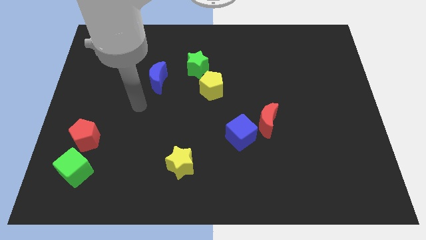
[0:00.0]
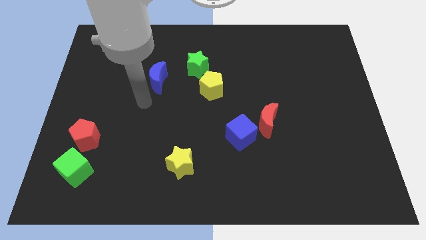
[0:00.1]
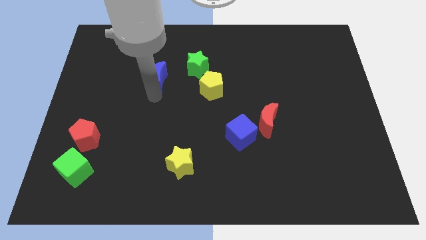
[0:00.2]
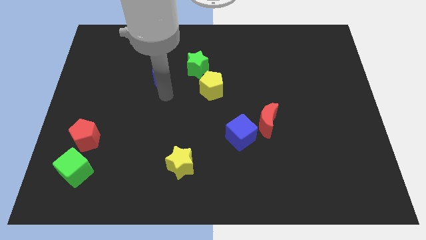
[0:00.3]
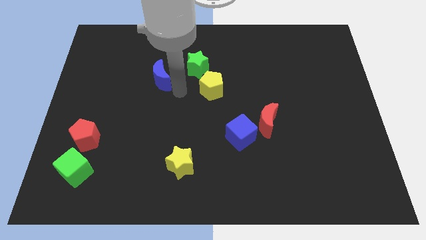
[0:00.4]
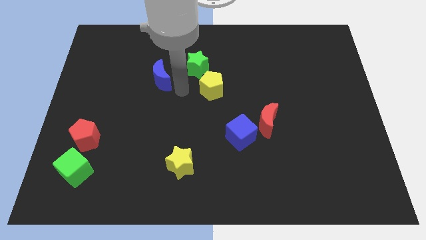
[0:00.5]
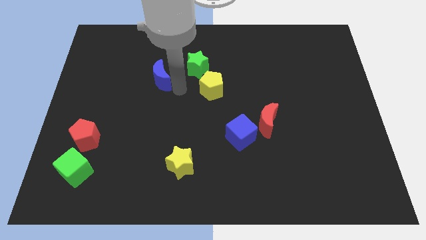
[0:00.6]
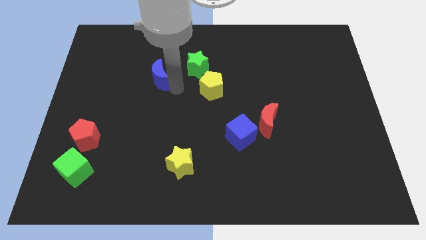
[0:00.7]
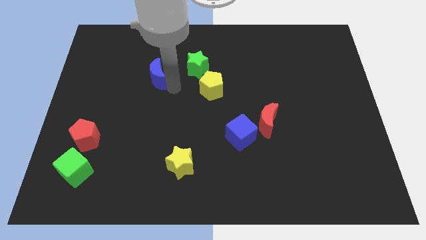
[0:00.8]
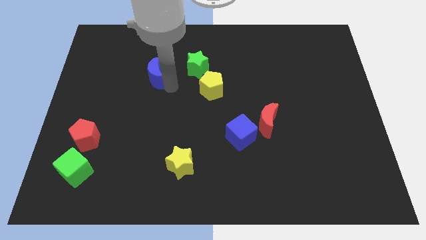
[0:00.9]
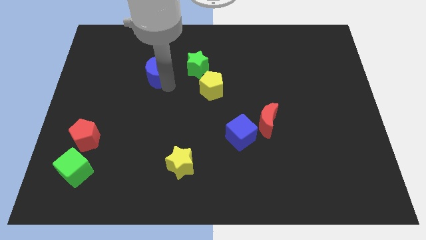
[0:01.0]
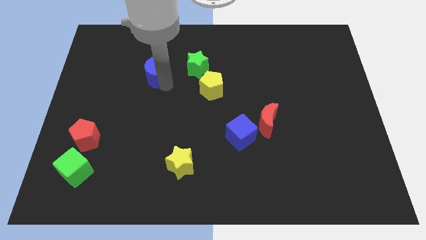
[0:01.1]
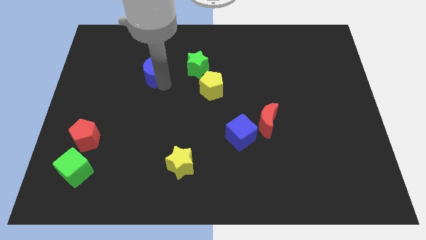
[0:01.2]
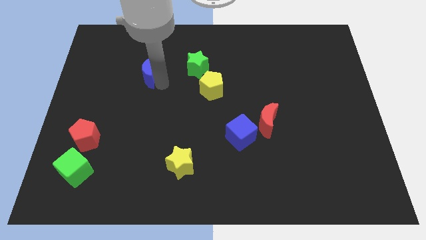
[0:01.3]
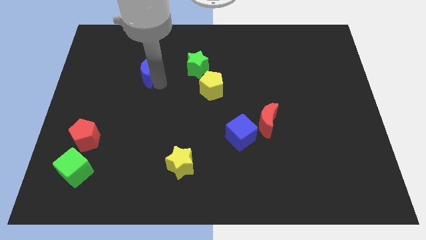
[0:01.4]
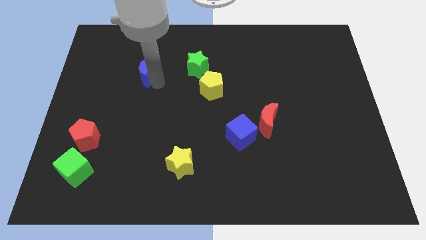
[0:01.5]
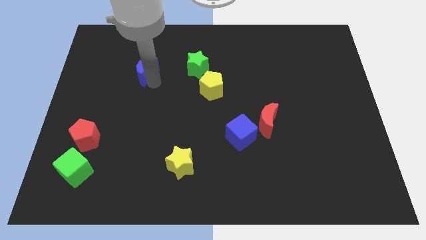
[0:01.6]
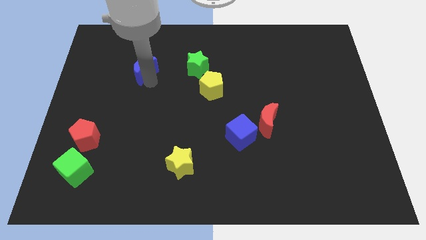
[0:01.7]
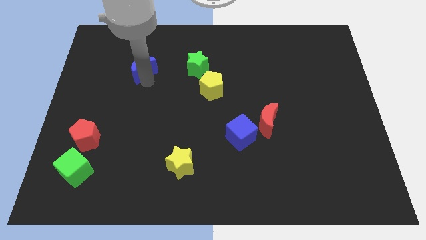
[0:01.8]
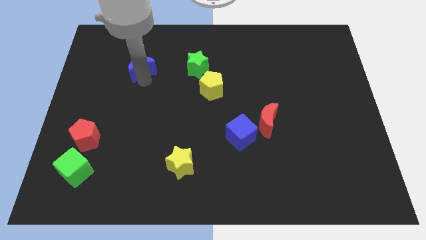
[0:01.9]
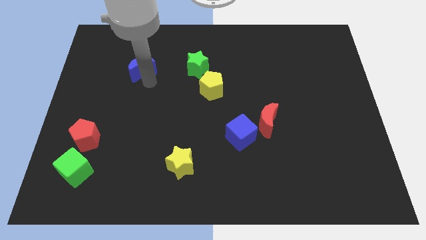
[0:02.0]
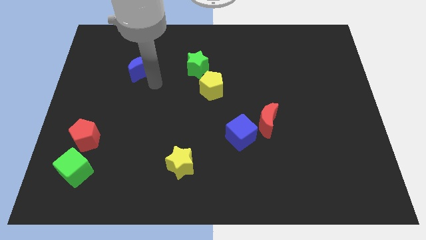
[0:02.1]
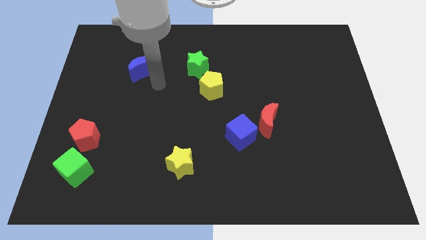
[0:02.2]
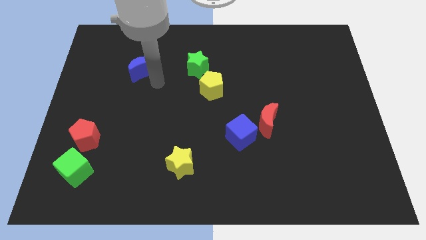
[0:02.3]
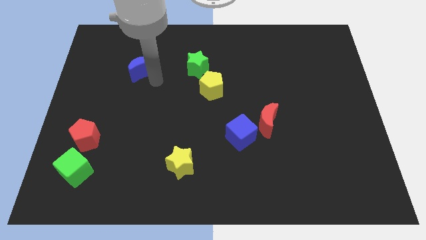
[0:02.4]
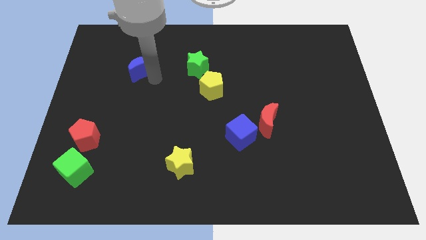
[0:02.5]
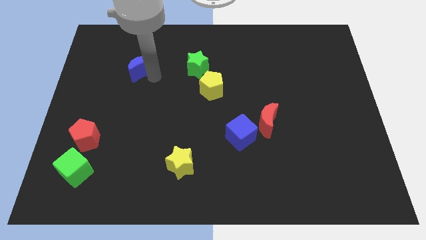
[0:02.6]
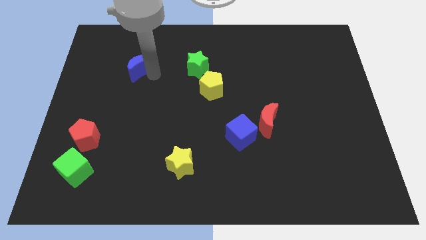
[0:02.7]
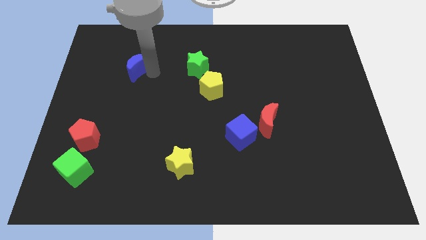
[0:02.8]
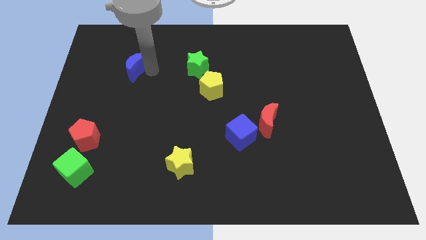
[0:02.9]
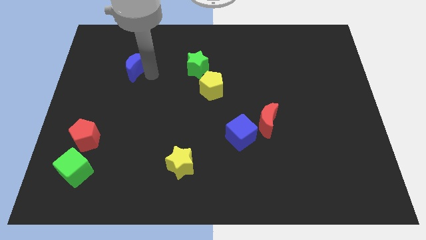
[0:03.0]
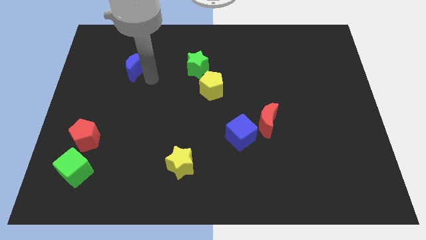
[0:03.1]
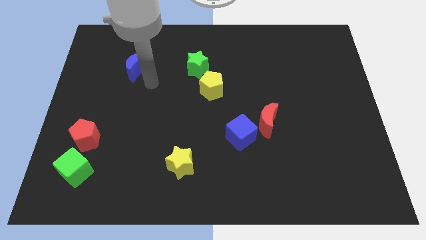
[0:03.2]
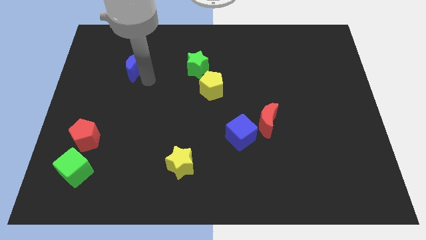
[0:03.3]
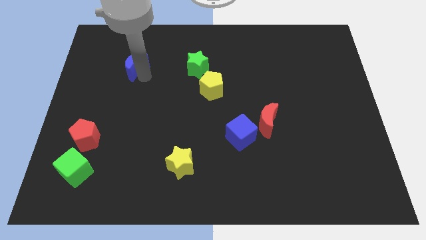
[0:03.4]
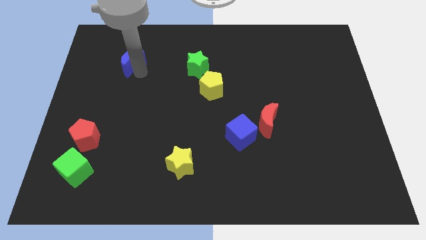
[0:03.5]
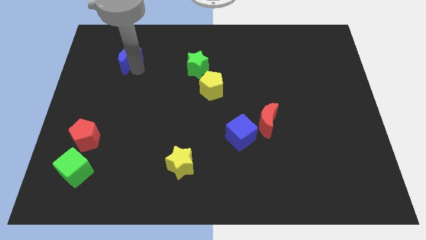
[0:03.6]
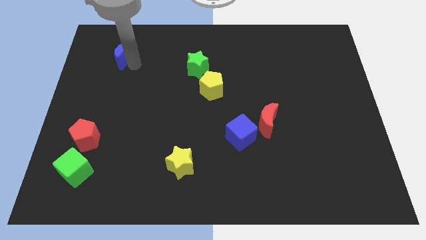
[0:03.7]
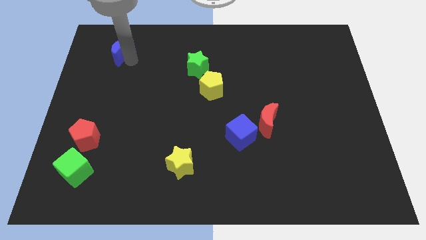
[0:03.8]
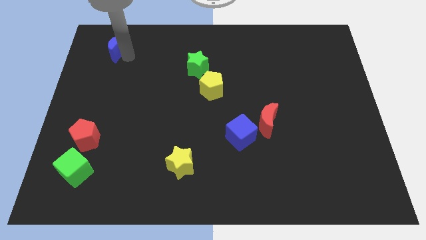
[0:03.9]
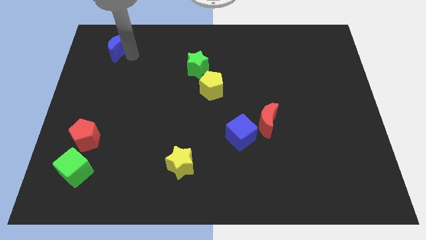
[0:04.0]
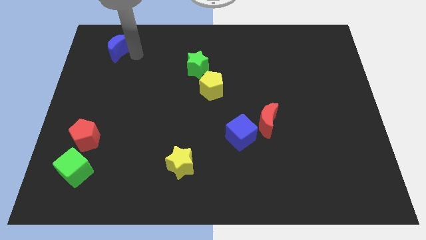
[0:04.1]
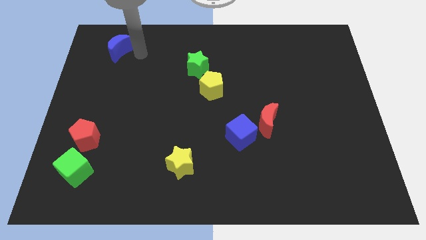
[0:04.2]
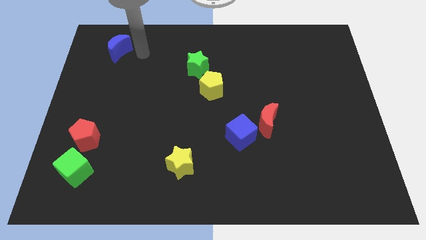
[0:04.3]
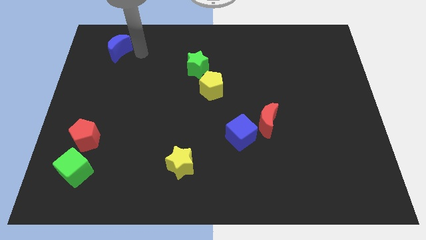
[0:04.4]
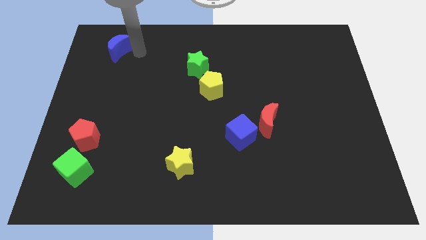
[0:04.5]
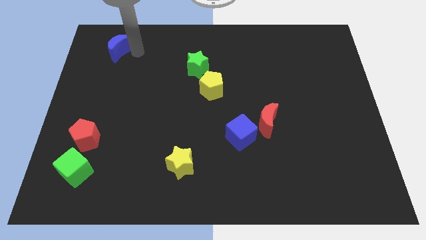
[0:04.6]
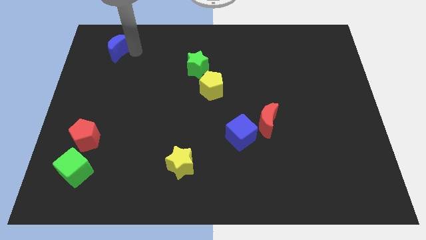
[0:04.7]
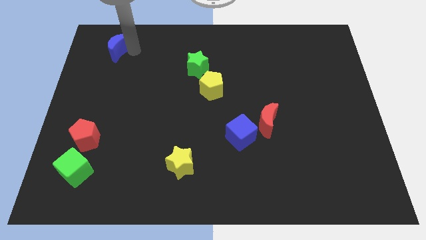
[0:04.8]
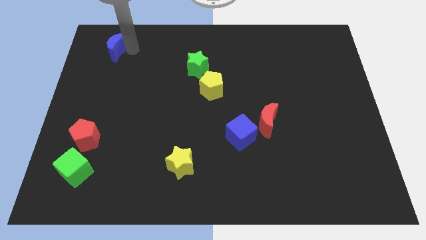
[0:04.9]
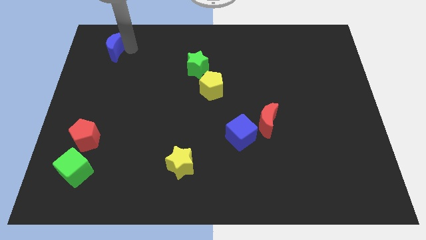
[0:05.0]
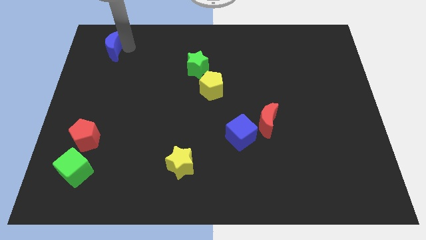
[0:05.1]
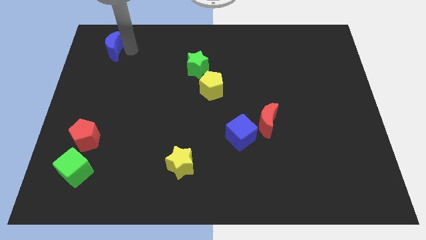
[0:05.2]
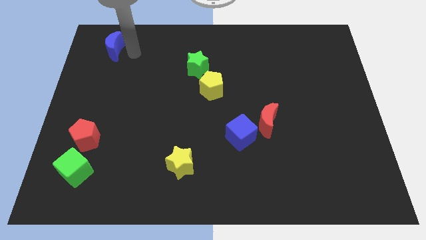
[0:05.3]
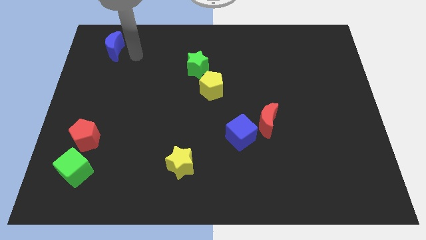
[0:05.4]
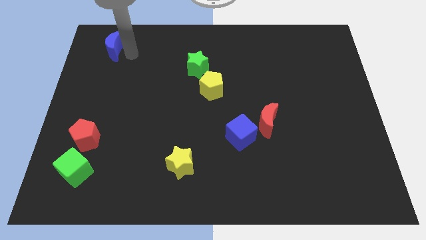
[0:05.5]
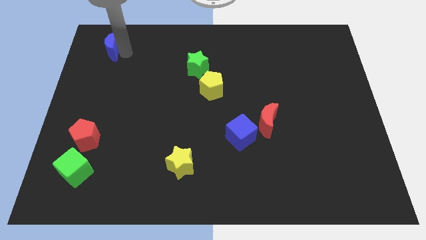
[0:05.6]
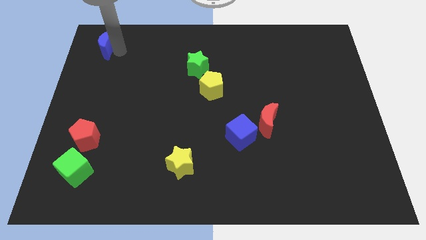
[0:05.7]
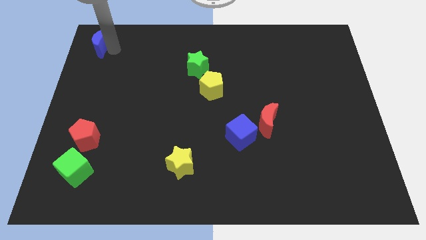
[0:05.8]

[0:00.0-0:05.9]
slide the blue moon to the upper left corner

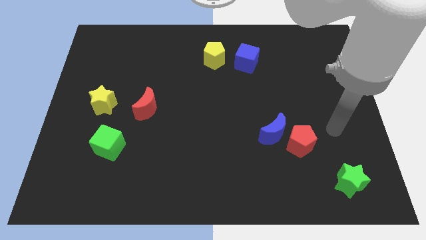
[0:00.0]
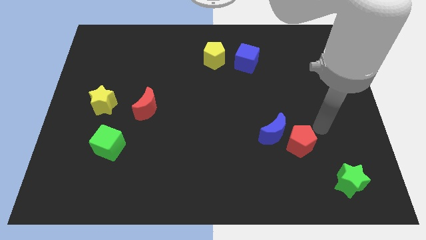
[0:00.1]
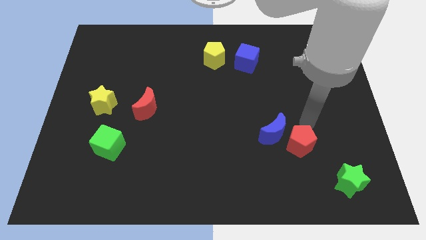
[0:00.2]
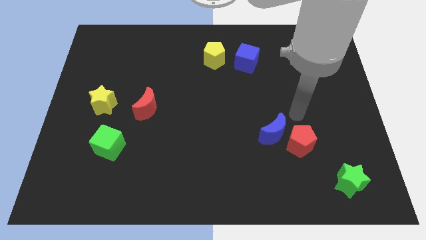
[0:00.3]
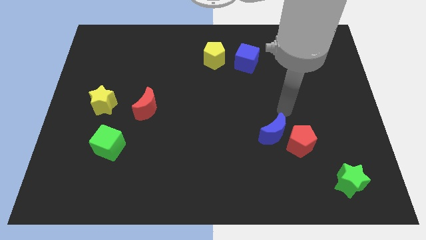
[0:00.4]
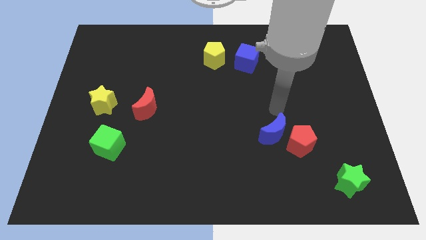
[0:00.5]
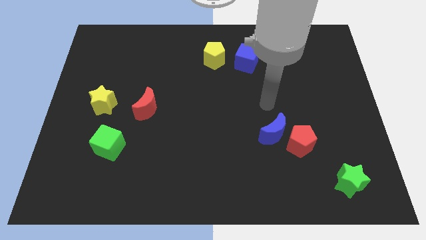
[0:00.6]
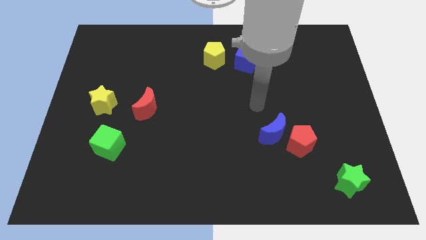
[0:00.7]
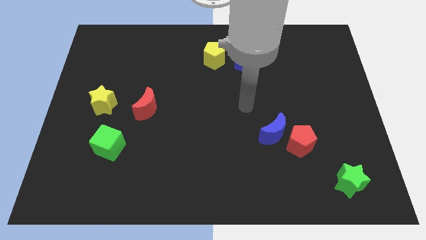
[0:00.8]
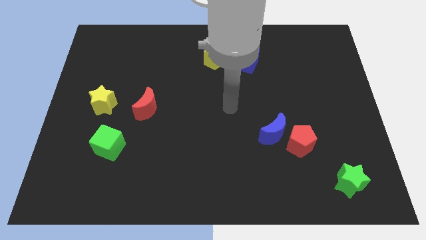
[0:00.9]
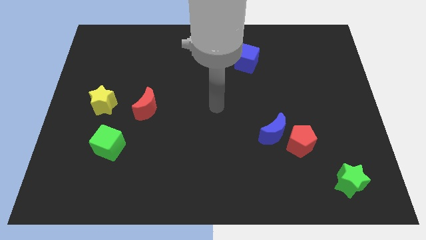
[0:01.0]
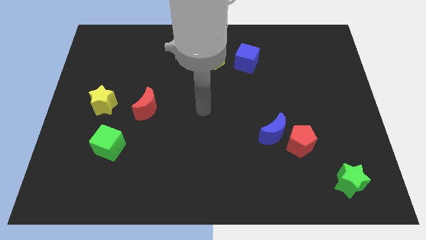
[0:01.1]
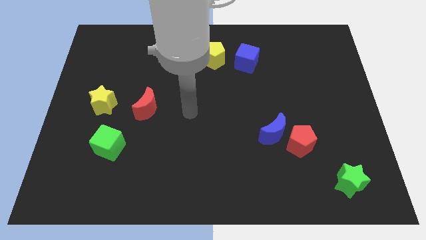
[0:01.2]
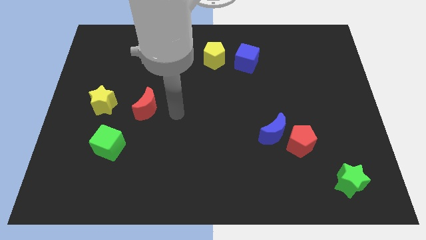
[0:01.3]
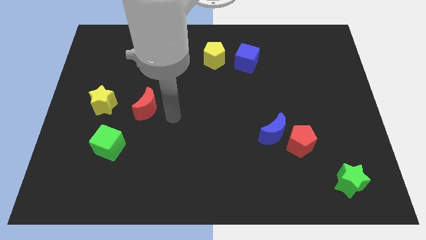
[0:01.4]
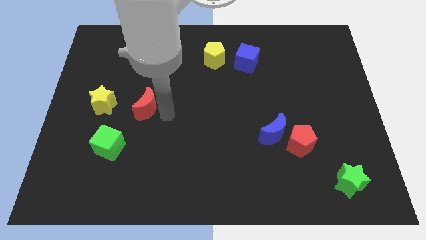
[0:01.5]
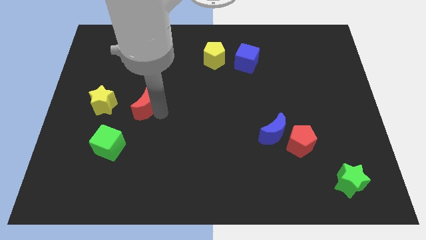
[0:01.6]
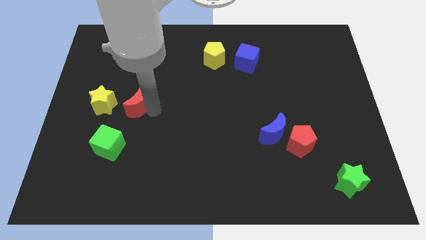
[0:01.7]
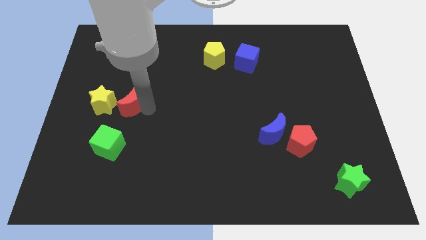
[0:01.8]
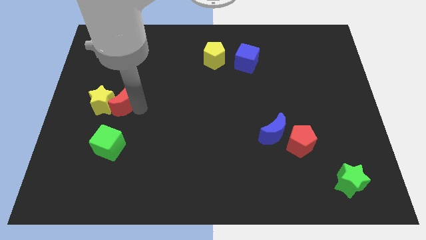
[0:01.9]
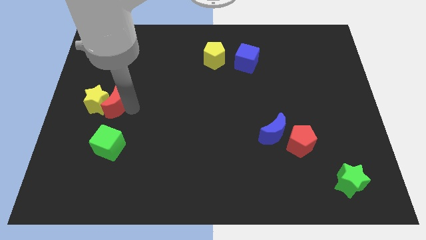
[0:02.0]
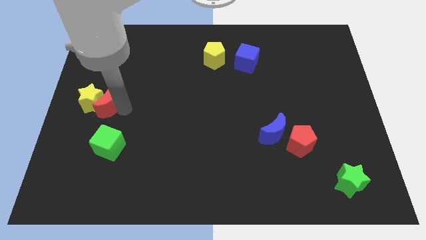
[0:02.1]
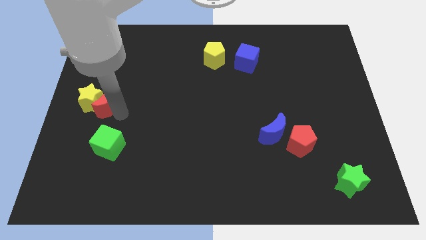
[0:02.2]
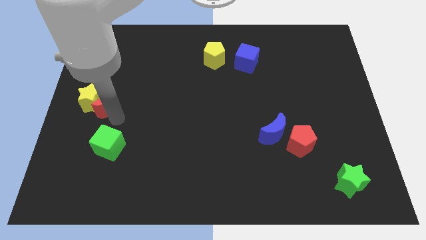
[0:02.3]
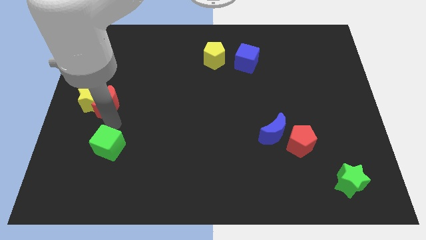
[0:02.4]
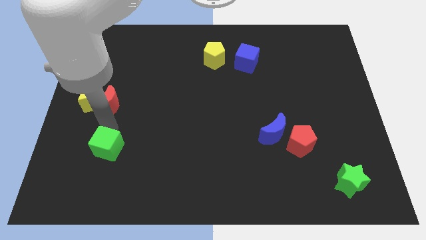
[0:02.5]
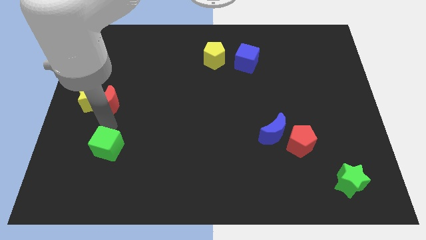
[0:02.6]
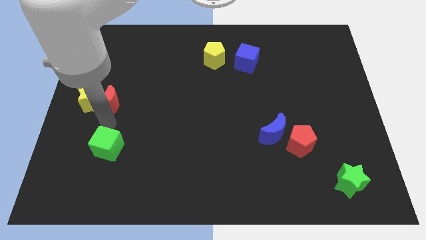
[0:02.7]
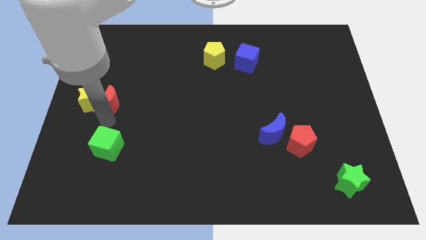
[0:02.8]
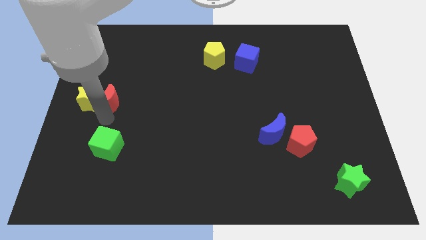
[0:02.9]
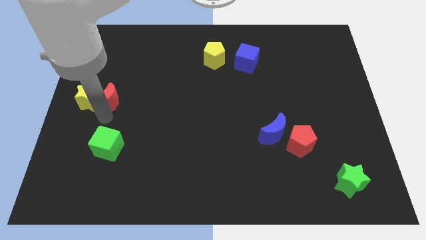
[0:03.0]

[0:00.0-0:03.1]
push the red moon to the left side of the board
